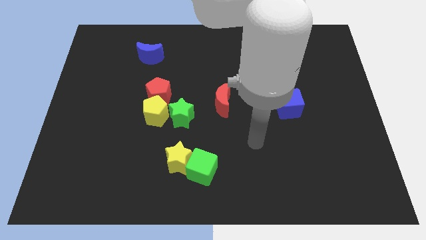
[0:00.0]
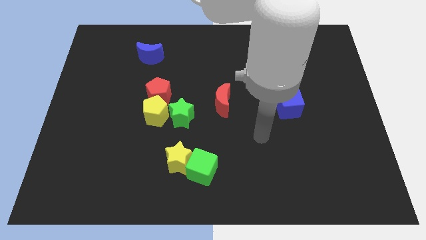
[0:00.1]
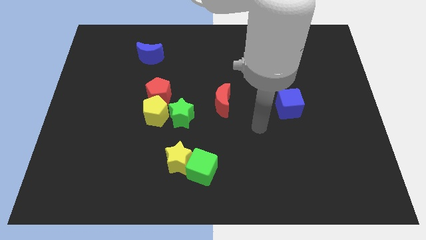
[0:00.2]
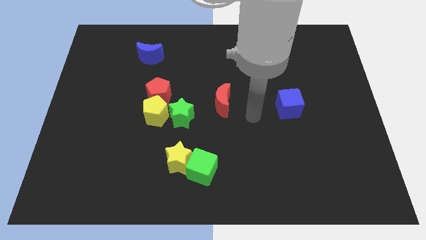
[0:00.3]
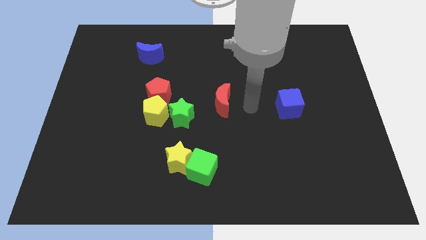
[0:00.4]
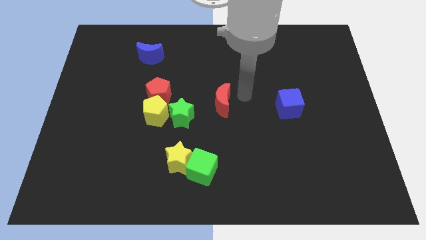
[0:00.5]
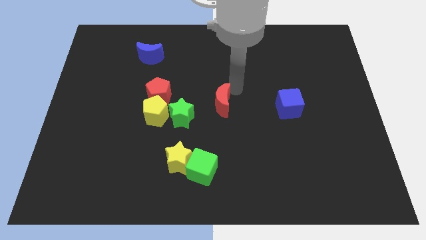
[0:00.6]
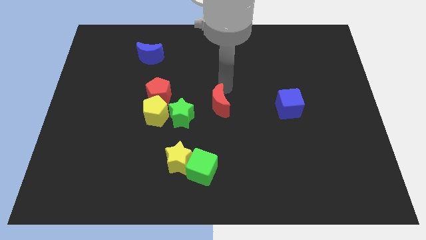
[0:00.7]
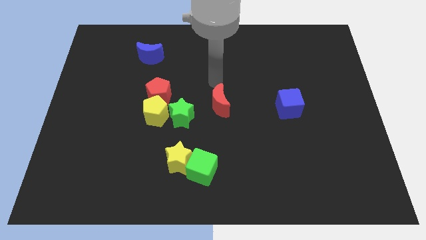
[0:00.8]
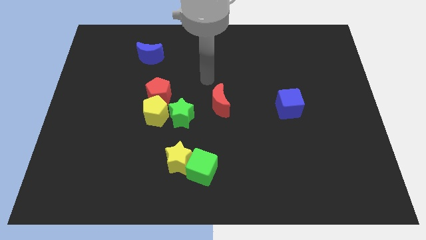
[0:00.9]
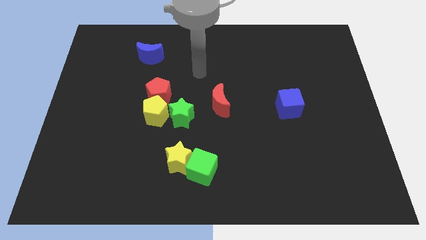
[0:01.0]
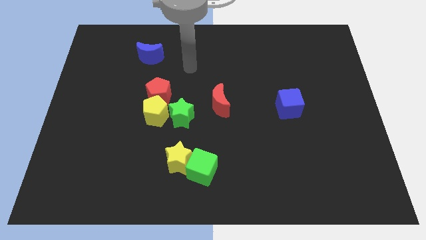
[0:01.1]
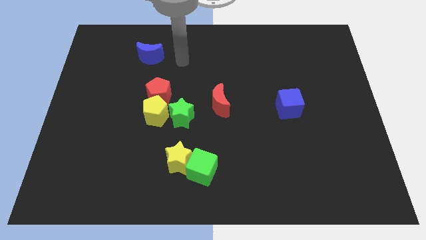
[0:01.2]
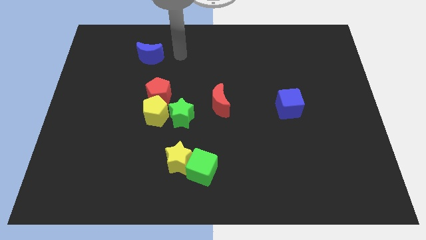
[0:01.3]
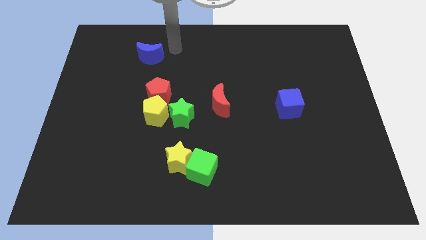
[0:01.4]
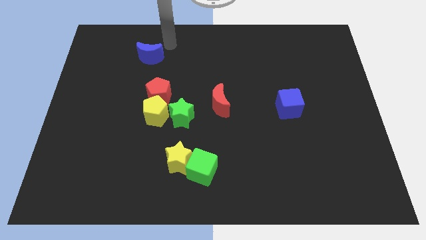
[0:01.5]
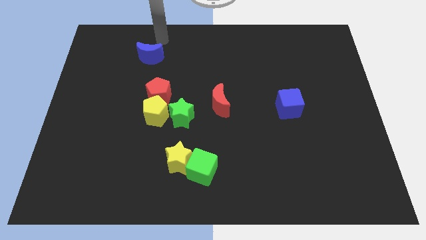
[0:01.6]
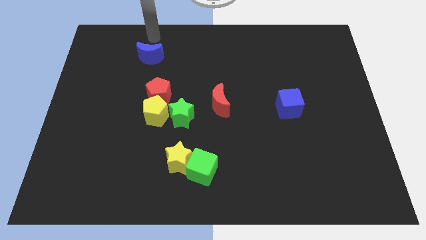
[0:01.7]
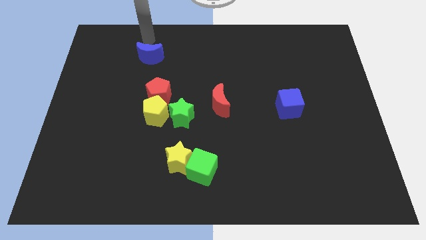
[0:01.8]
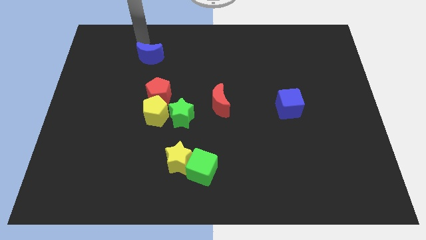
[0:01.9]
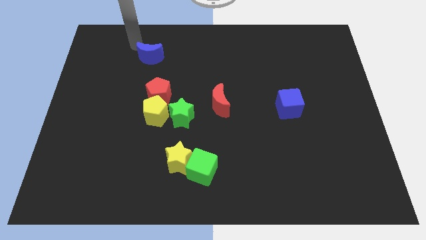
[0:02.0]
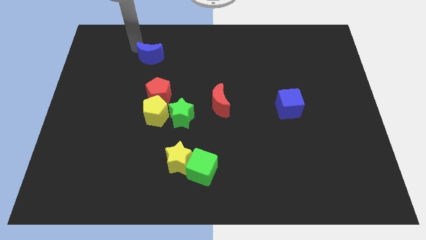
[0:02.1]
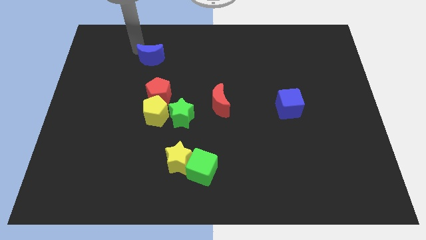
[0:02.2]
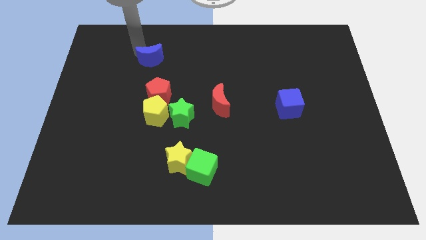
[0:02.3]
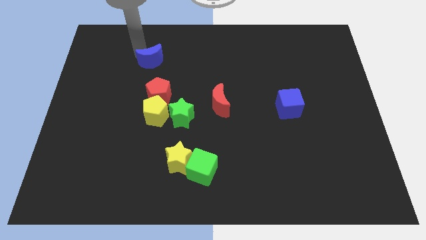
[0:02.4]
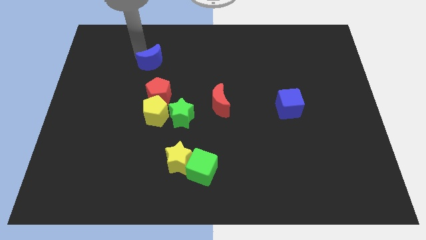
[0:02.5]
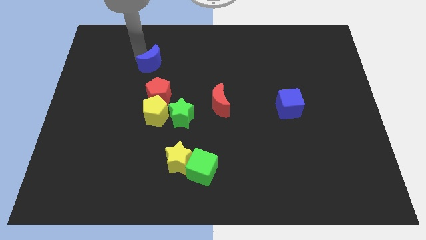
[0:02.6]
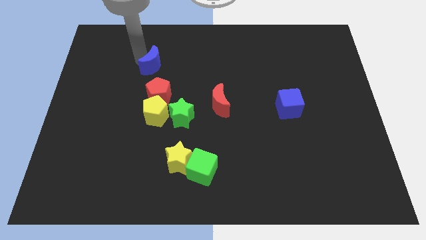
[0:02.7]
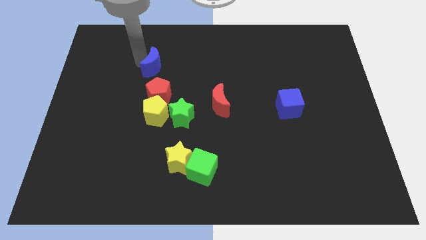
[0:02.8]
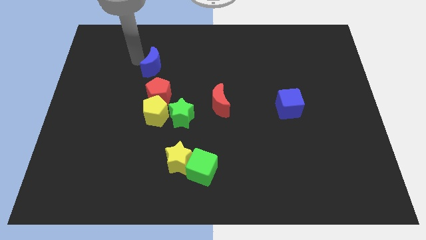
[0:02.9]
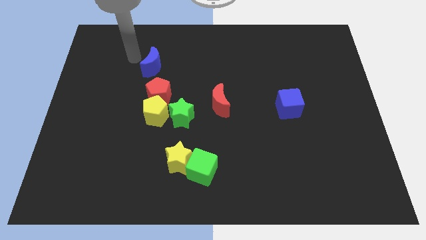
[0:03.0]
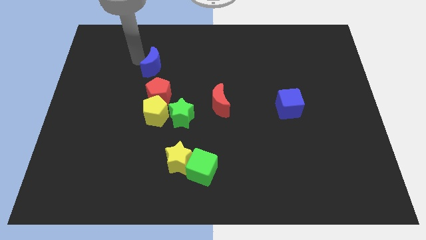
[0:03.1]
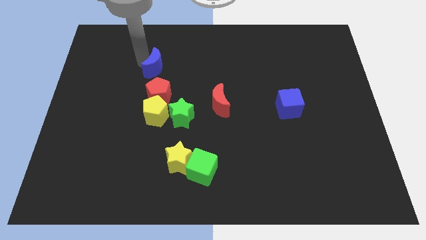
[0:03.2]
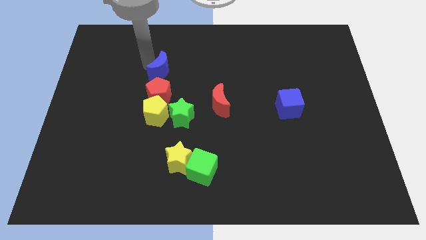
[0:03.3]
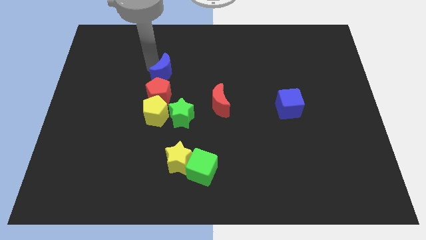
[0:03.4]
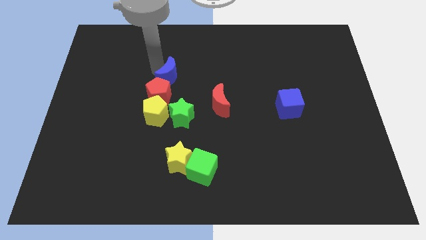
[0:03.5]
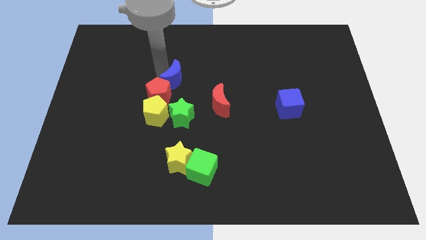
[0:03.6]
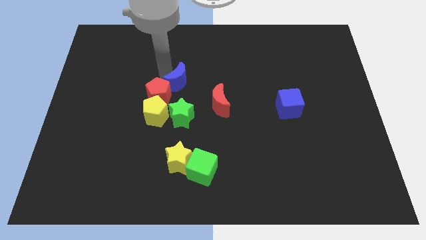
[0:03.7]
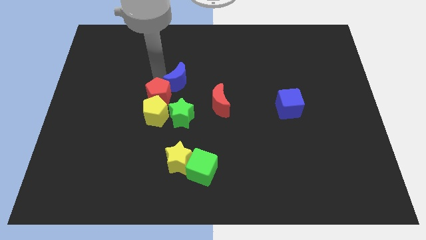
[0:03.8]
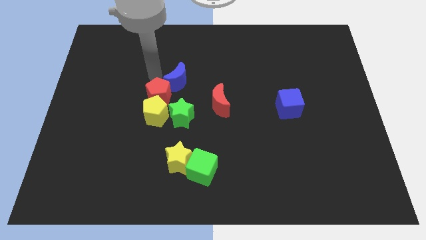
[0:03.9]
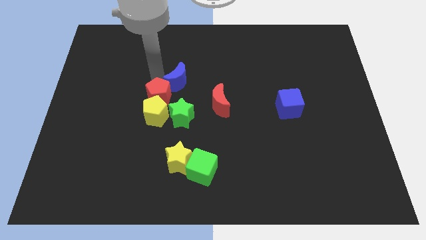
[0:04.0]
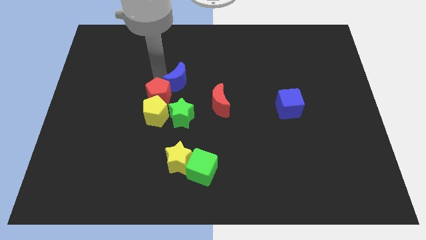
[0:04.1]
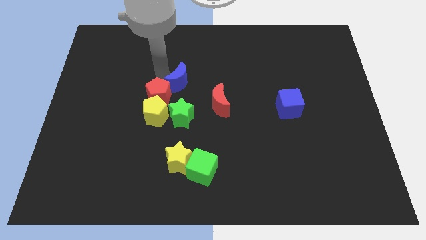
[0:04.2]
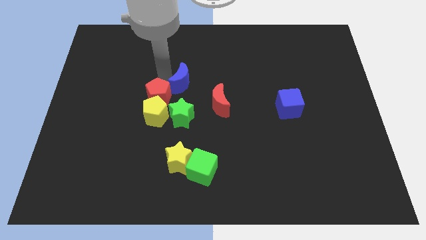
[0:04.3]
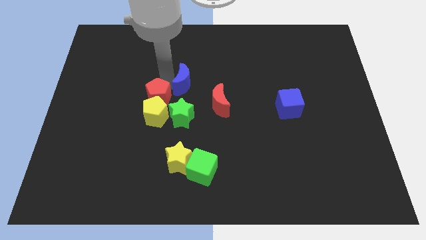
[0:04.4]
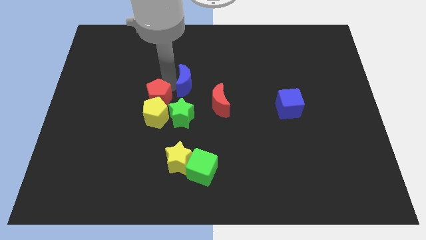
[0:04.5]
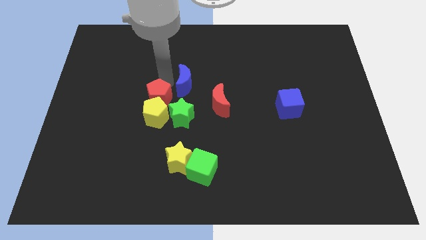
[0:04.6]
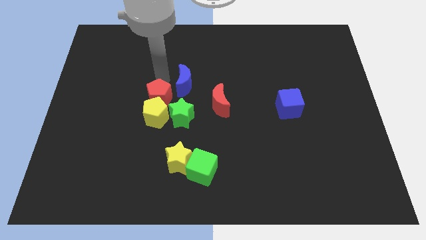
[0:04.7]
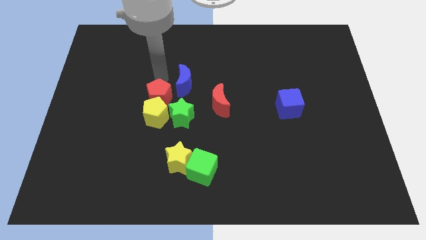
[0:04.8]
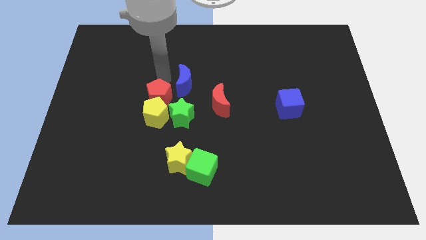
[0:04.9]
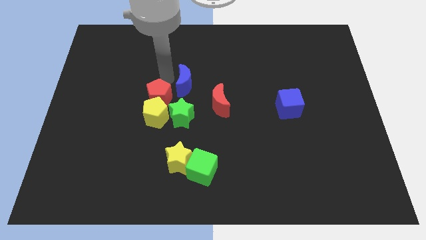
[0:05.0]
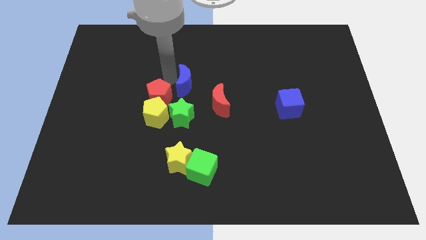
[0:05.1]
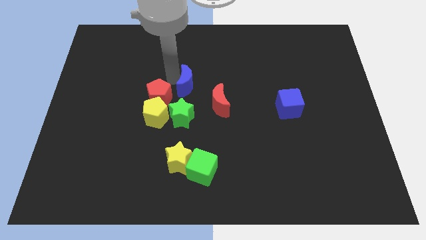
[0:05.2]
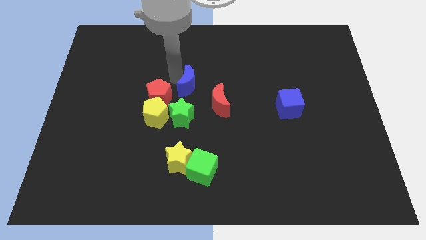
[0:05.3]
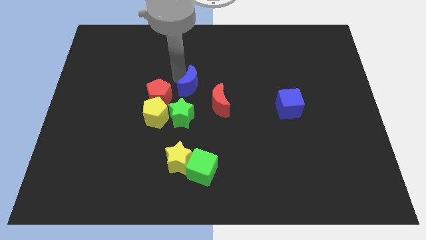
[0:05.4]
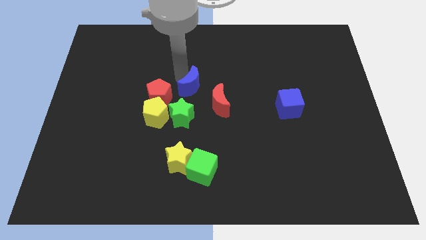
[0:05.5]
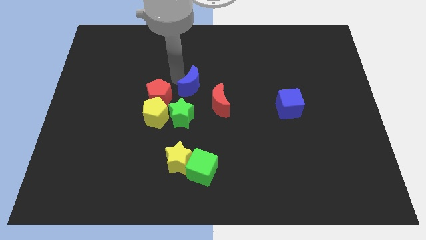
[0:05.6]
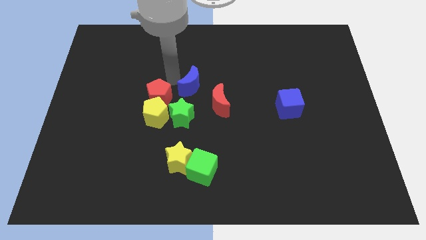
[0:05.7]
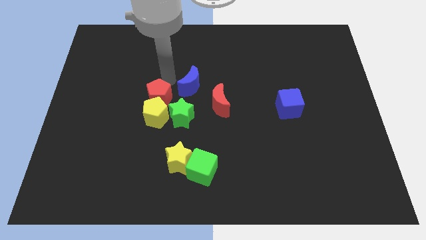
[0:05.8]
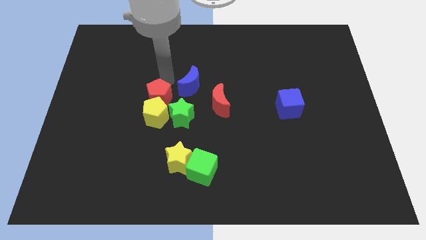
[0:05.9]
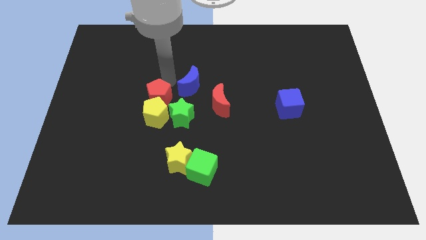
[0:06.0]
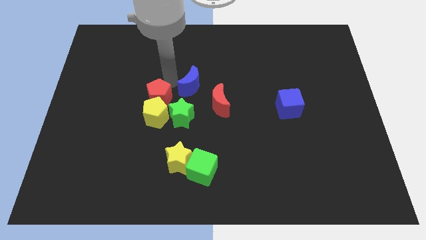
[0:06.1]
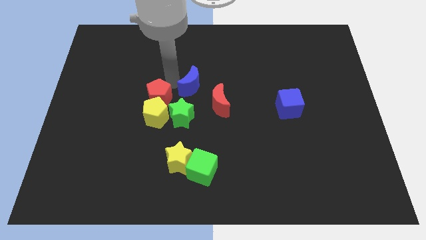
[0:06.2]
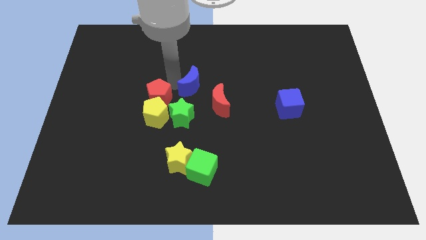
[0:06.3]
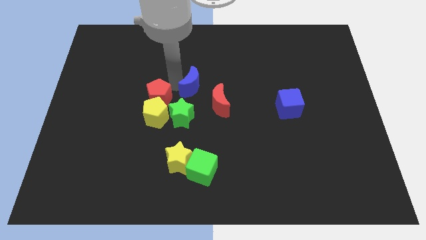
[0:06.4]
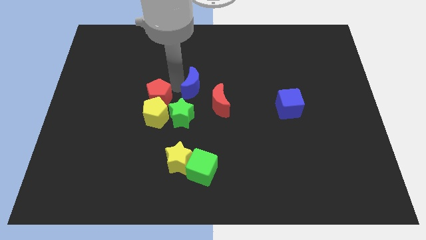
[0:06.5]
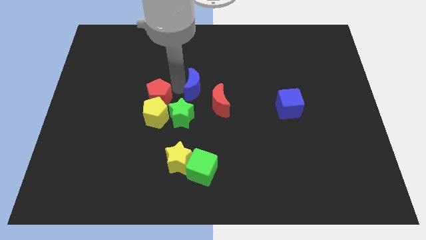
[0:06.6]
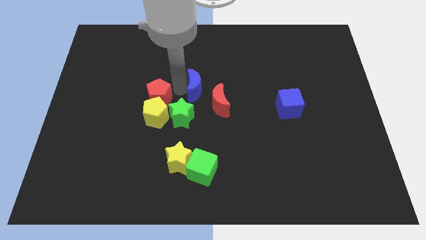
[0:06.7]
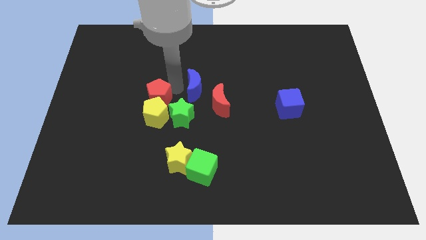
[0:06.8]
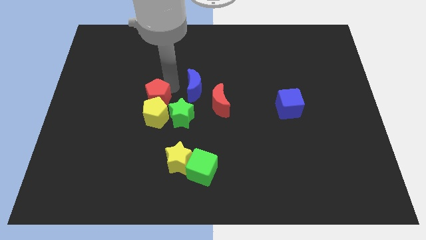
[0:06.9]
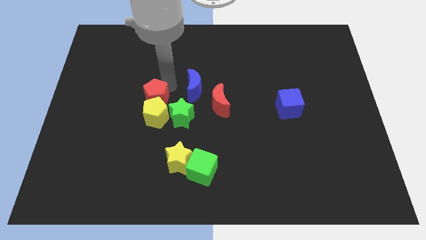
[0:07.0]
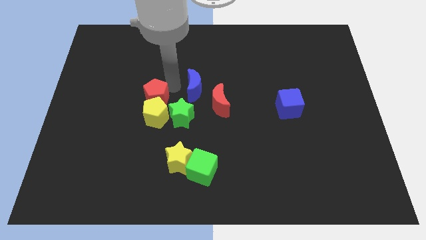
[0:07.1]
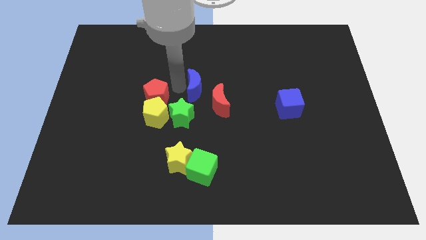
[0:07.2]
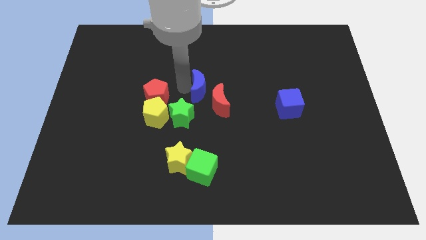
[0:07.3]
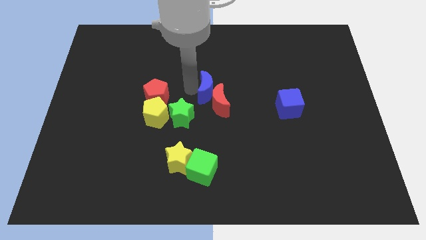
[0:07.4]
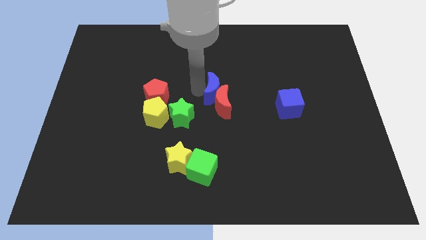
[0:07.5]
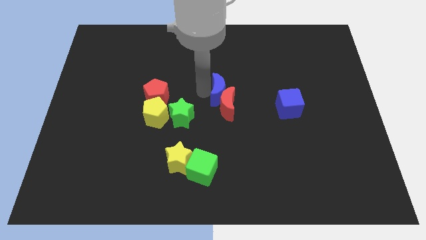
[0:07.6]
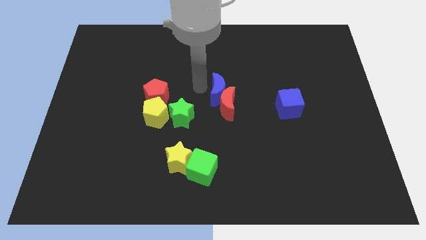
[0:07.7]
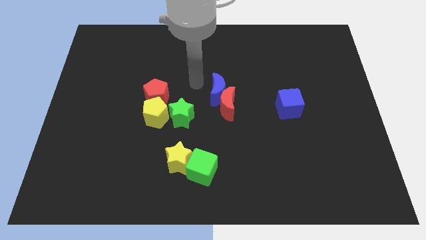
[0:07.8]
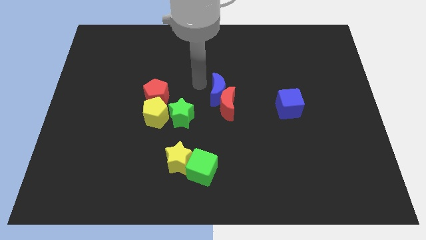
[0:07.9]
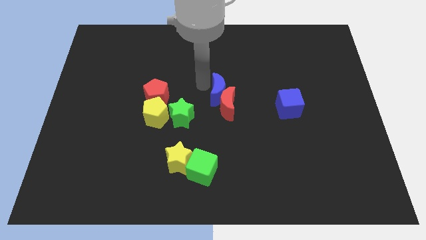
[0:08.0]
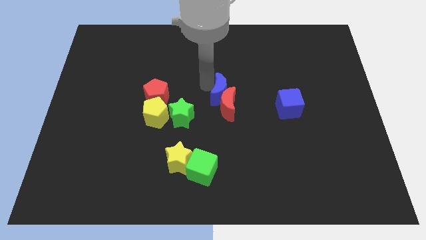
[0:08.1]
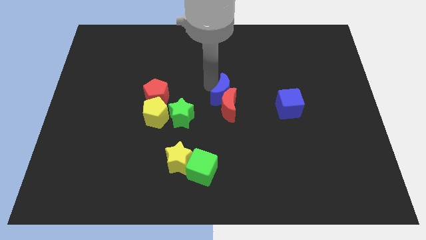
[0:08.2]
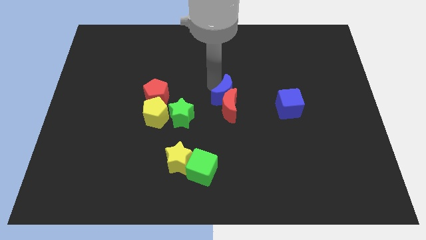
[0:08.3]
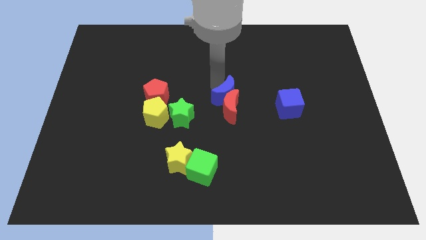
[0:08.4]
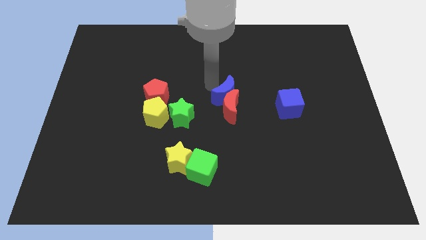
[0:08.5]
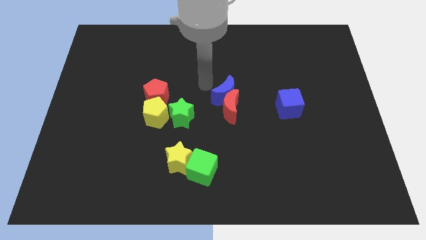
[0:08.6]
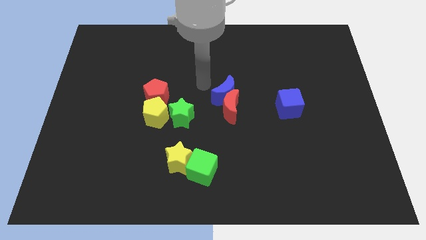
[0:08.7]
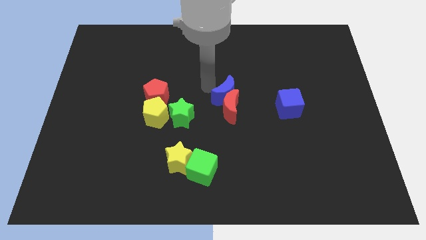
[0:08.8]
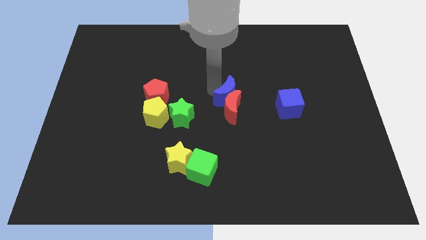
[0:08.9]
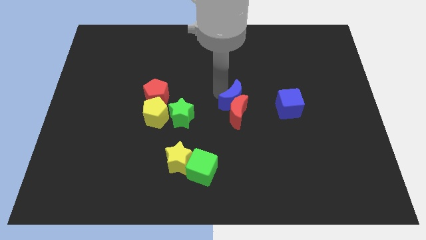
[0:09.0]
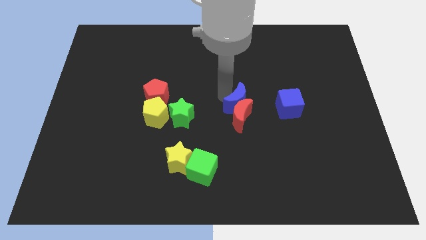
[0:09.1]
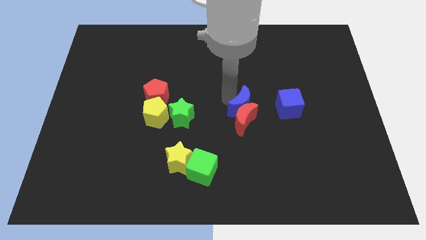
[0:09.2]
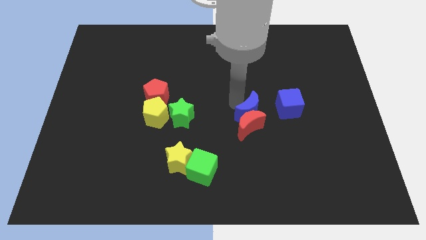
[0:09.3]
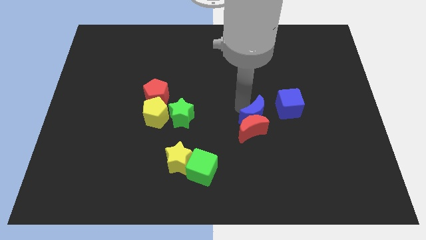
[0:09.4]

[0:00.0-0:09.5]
move the blue moon to the bottom left of the blue cube
